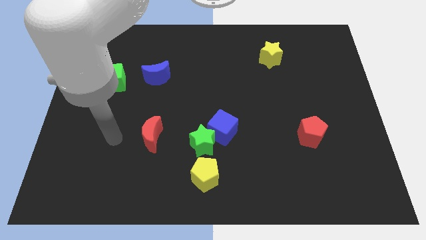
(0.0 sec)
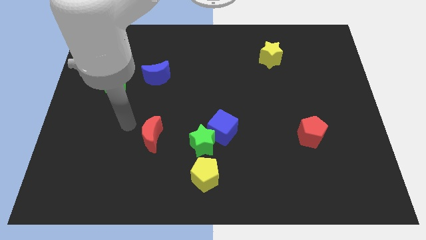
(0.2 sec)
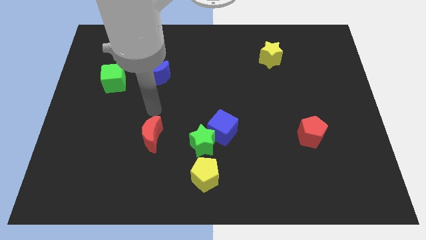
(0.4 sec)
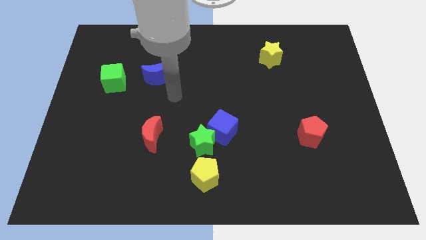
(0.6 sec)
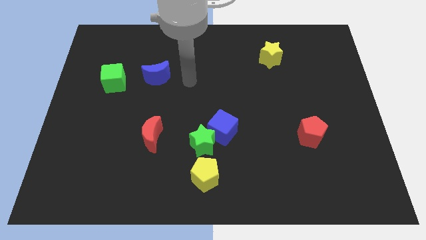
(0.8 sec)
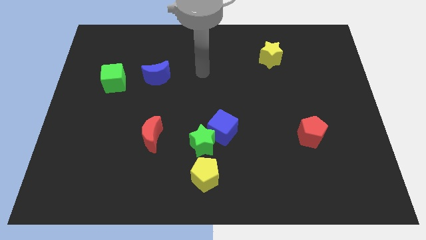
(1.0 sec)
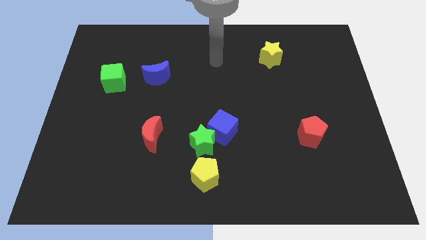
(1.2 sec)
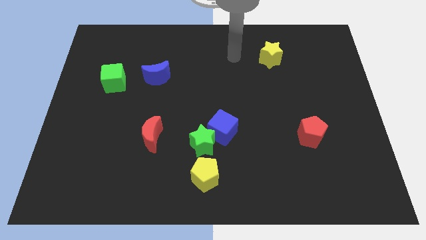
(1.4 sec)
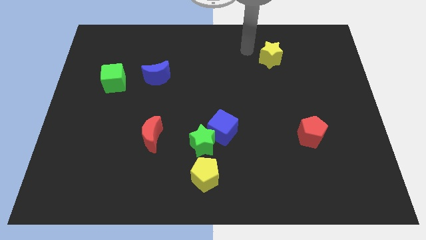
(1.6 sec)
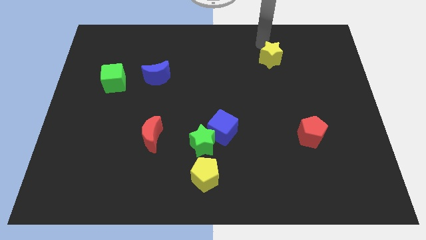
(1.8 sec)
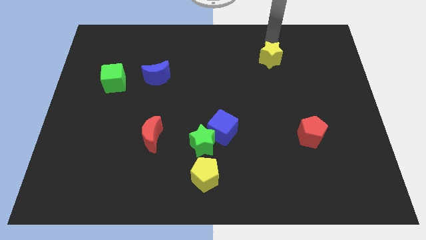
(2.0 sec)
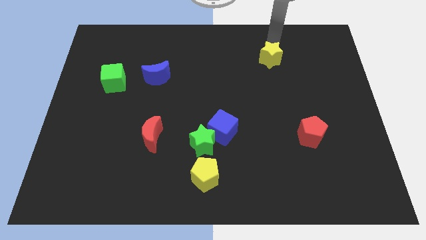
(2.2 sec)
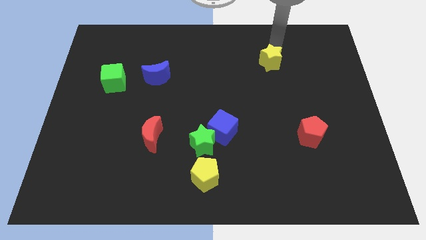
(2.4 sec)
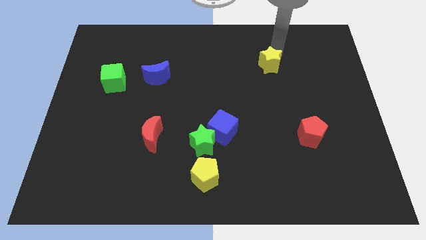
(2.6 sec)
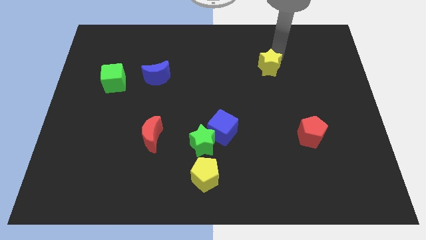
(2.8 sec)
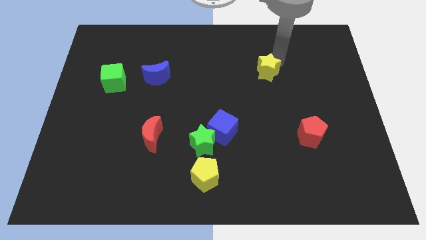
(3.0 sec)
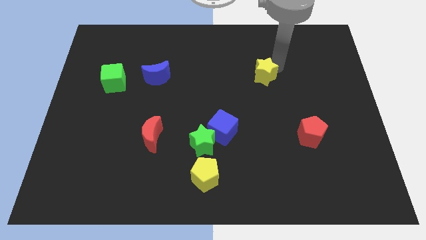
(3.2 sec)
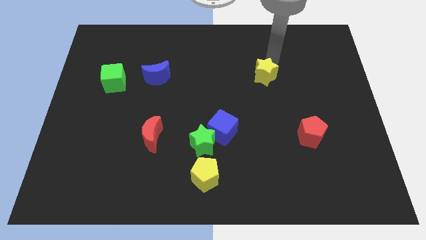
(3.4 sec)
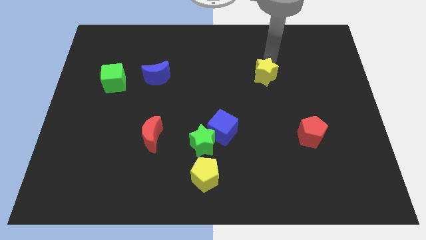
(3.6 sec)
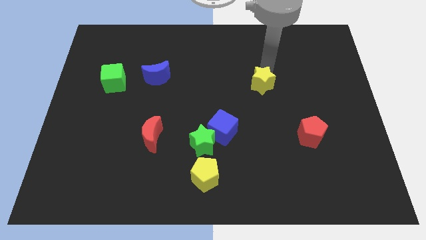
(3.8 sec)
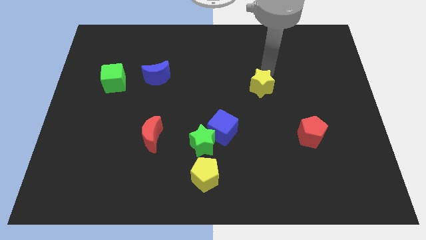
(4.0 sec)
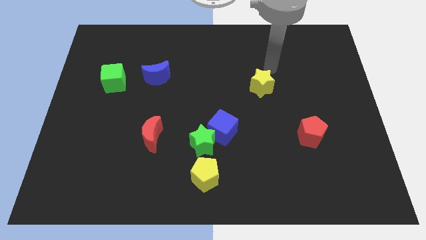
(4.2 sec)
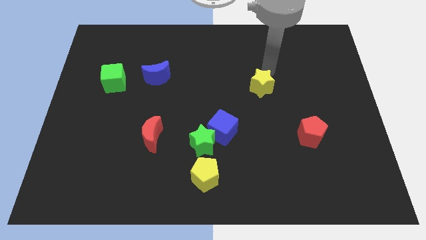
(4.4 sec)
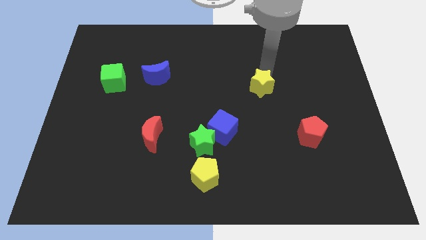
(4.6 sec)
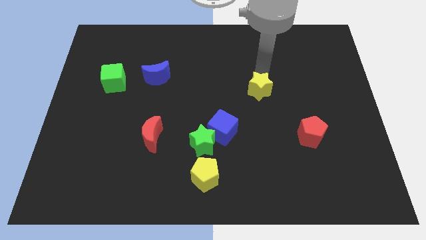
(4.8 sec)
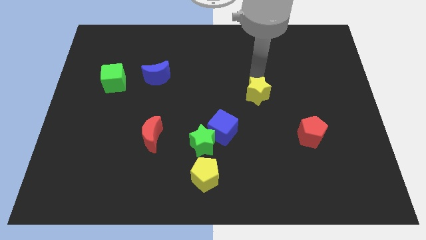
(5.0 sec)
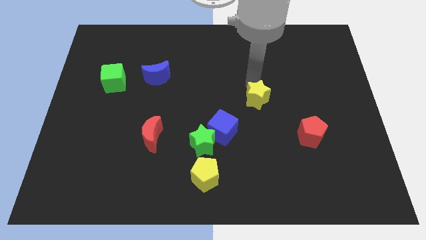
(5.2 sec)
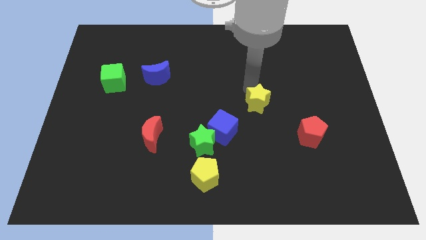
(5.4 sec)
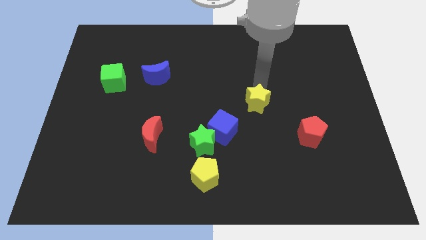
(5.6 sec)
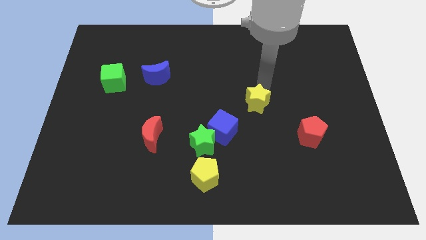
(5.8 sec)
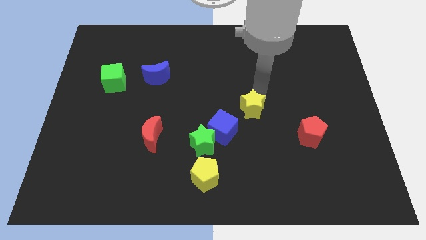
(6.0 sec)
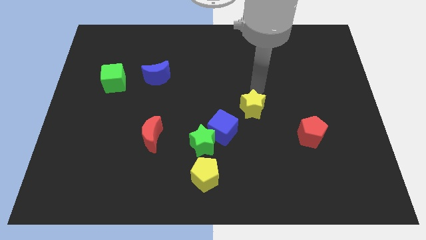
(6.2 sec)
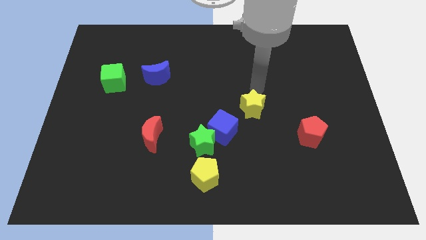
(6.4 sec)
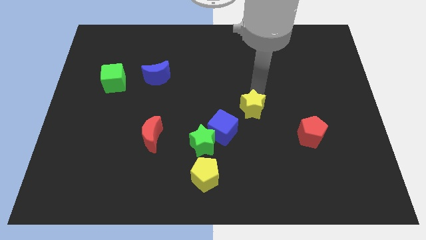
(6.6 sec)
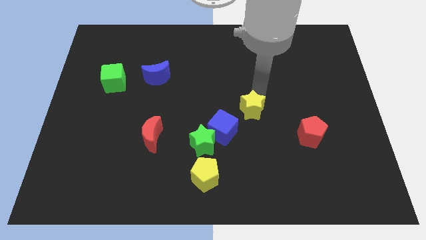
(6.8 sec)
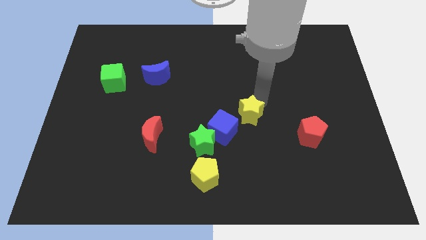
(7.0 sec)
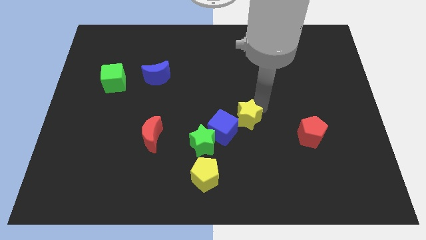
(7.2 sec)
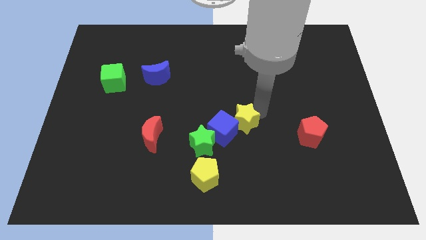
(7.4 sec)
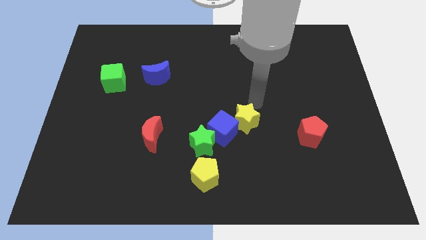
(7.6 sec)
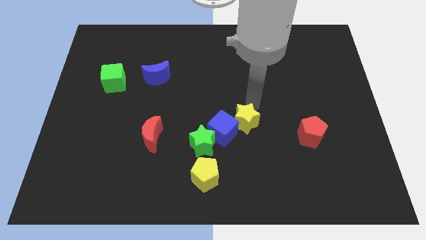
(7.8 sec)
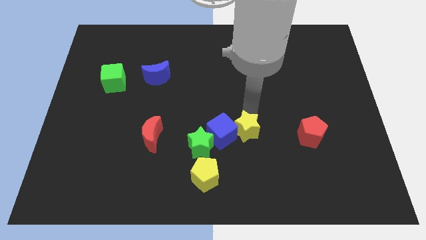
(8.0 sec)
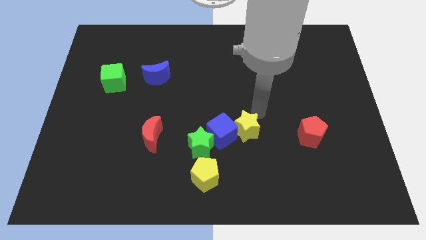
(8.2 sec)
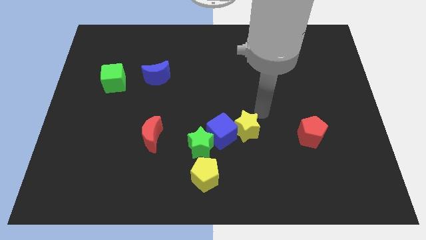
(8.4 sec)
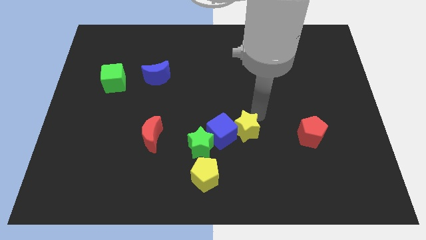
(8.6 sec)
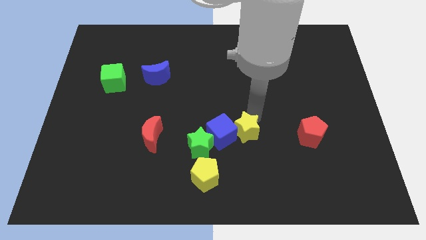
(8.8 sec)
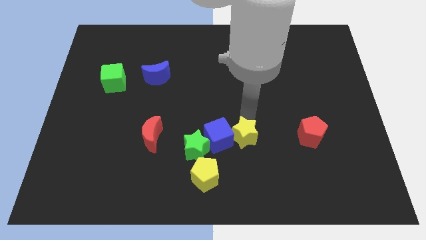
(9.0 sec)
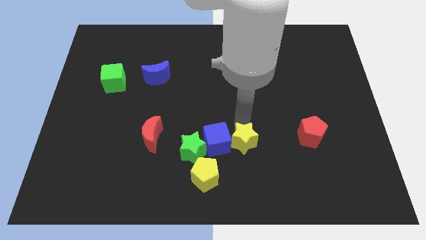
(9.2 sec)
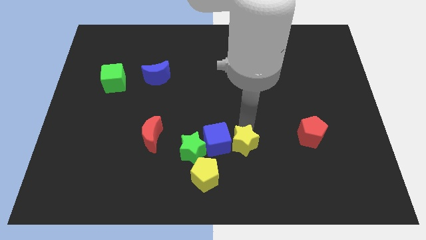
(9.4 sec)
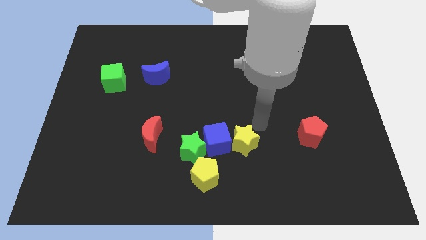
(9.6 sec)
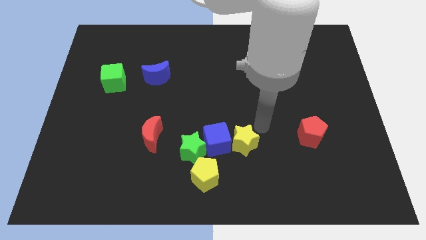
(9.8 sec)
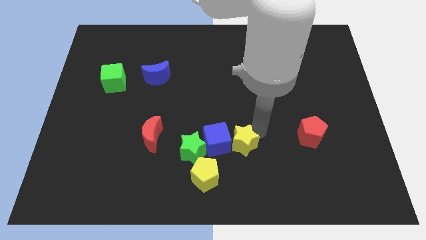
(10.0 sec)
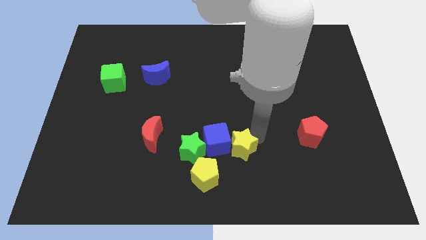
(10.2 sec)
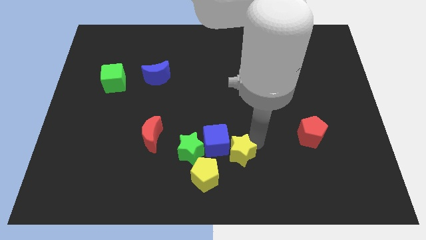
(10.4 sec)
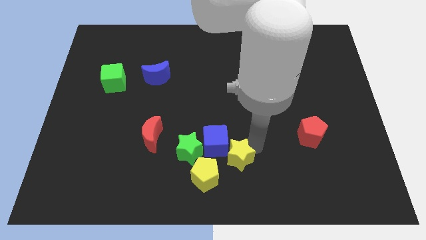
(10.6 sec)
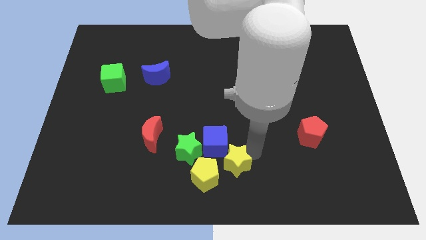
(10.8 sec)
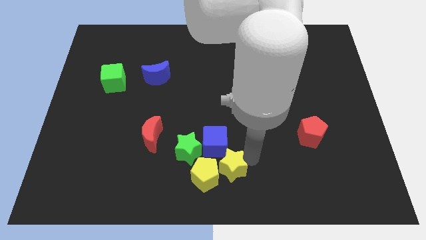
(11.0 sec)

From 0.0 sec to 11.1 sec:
push the yellow star towards the yellow pentagon

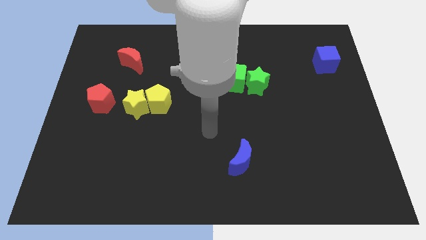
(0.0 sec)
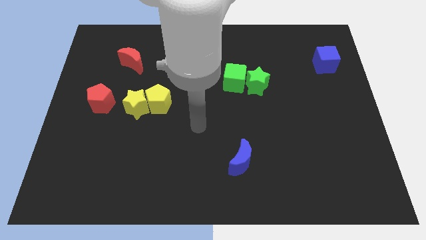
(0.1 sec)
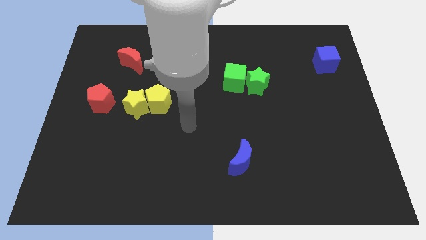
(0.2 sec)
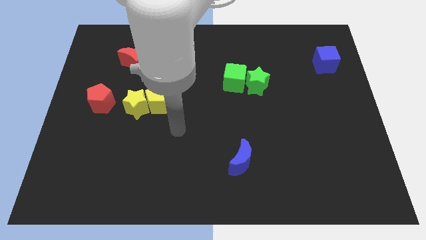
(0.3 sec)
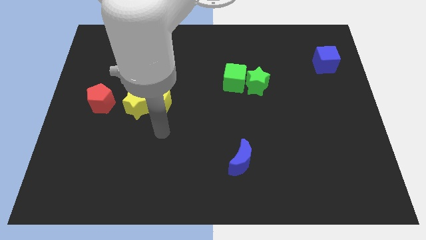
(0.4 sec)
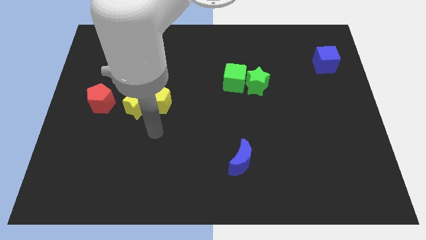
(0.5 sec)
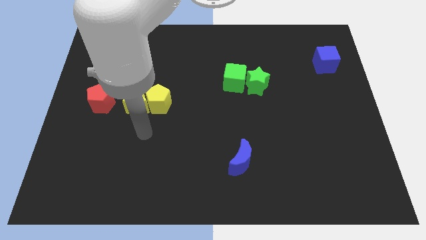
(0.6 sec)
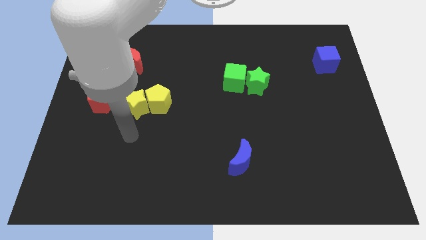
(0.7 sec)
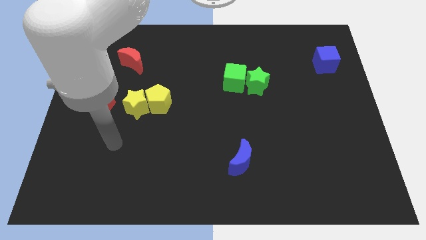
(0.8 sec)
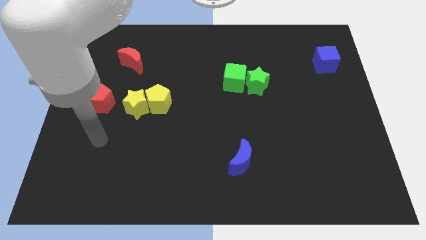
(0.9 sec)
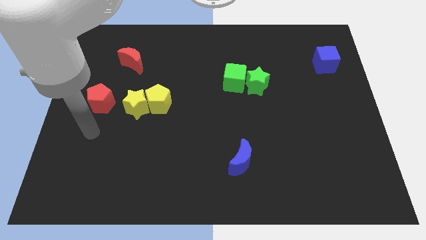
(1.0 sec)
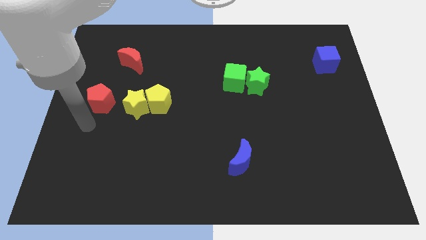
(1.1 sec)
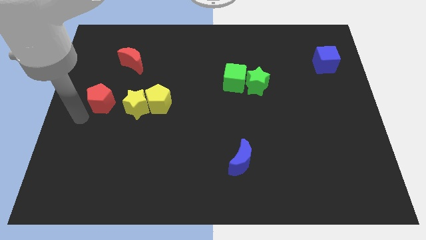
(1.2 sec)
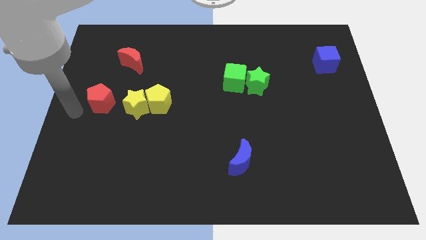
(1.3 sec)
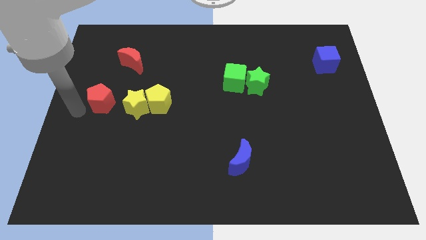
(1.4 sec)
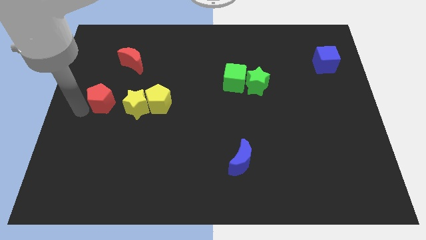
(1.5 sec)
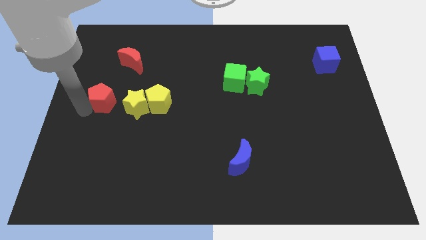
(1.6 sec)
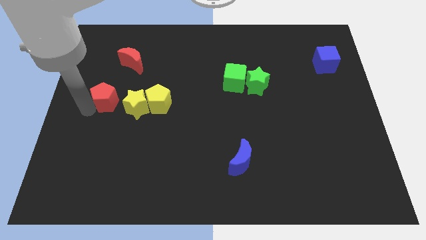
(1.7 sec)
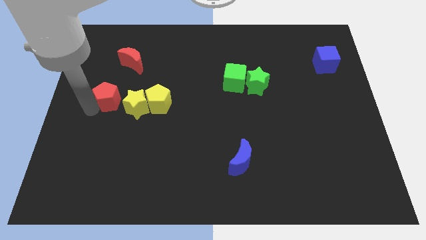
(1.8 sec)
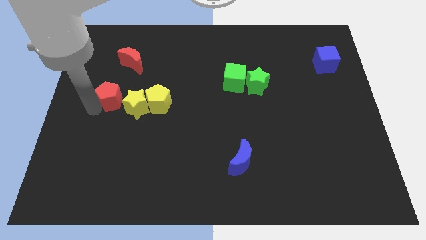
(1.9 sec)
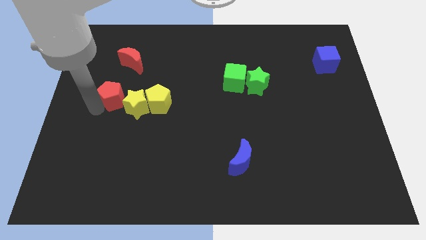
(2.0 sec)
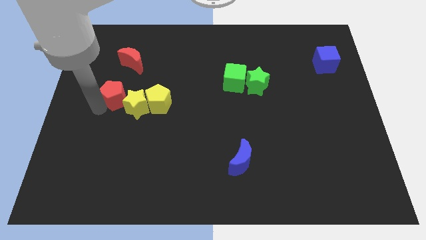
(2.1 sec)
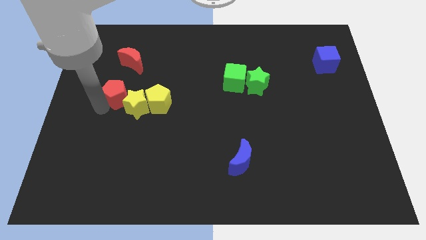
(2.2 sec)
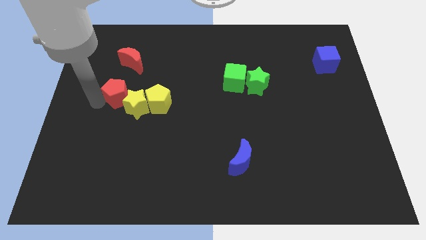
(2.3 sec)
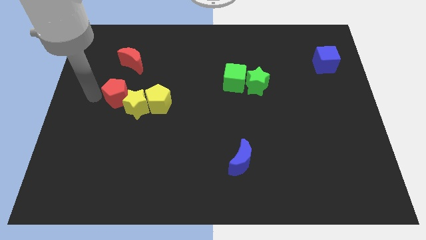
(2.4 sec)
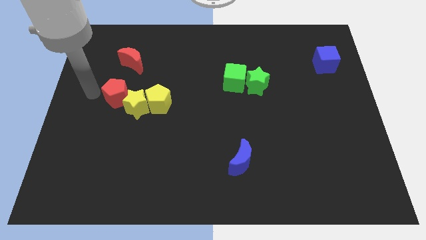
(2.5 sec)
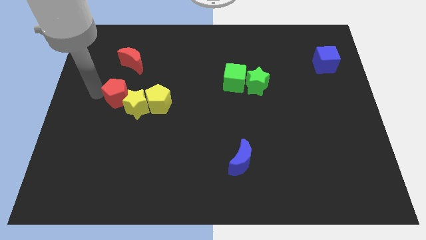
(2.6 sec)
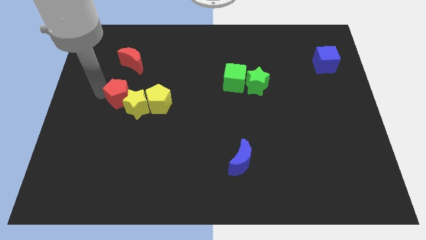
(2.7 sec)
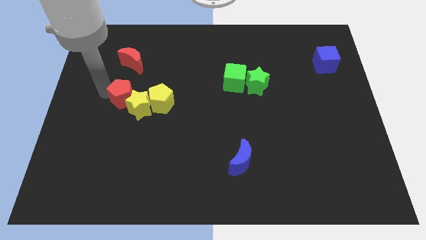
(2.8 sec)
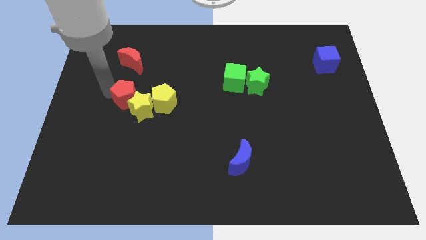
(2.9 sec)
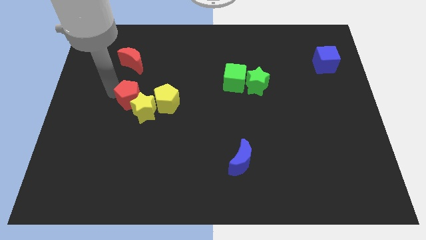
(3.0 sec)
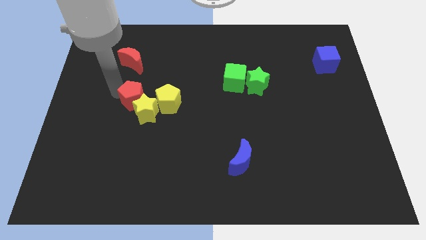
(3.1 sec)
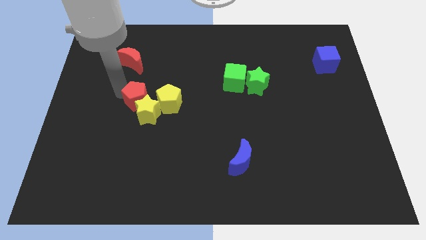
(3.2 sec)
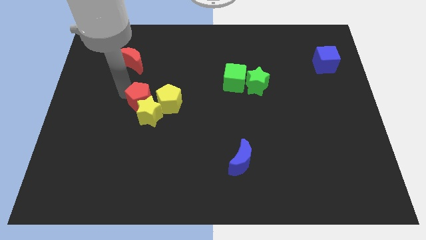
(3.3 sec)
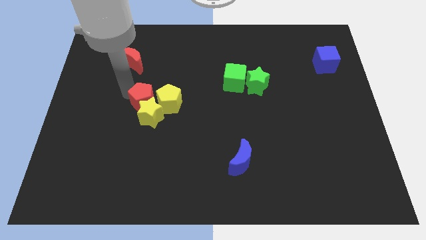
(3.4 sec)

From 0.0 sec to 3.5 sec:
slide the red pentagon to the yellow pentagon
